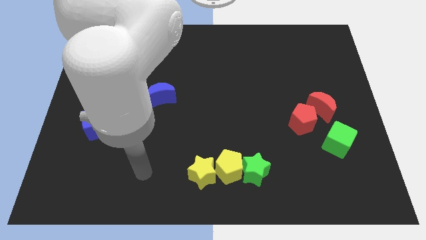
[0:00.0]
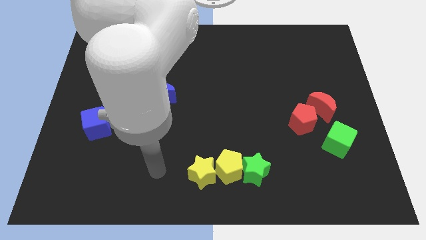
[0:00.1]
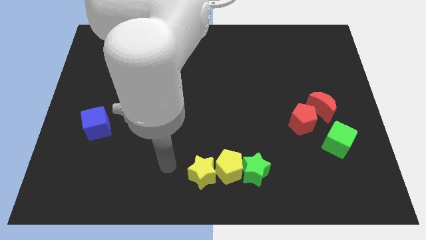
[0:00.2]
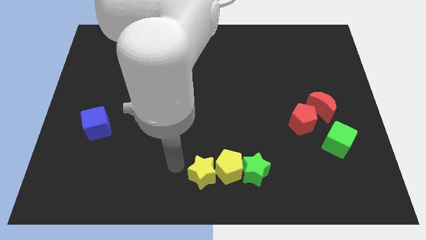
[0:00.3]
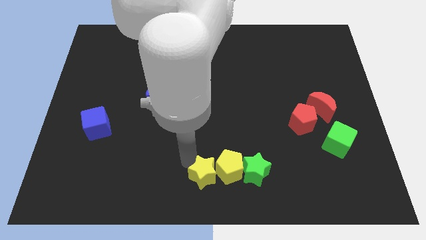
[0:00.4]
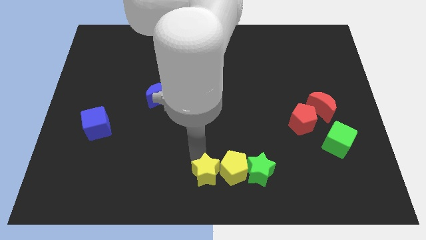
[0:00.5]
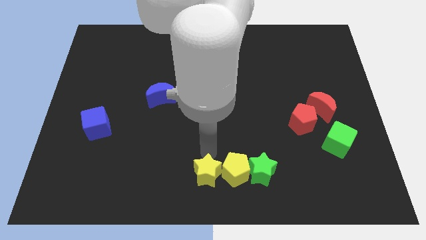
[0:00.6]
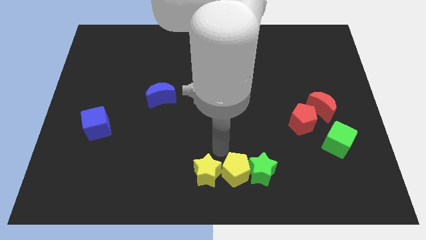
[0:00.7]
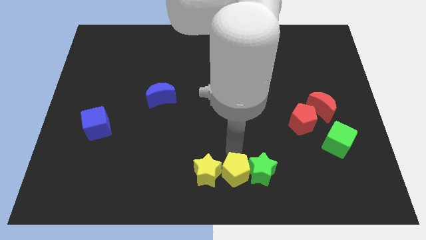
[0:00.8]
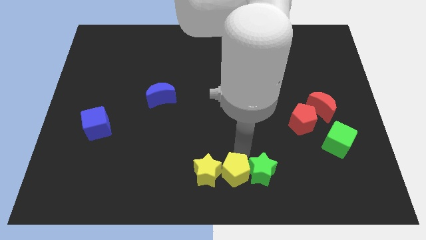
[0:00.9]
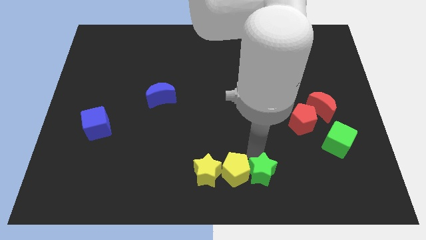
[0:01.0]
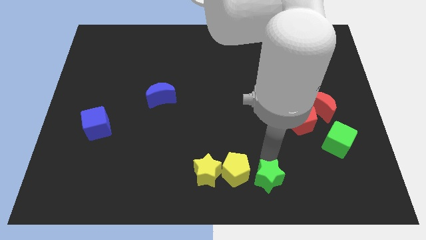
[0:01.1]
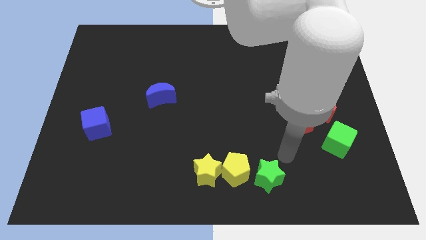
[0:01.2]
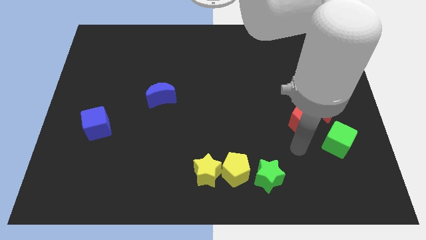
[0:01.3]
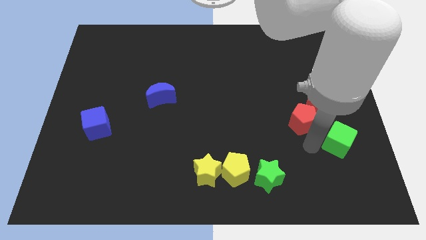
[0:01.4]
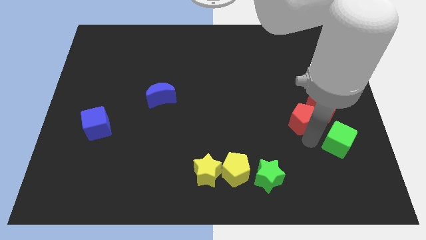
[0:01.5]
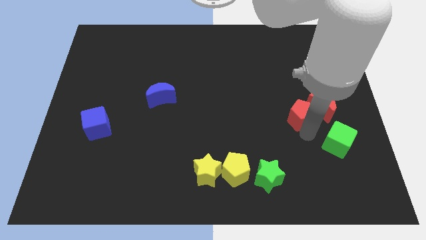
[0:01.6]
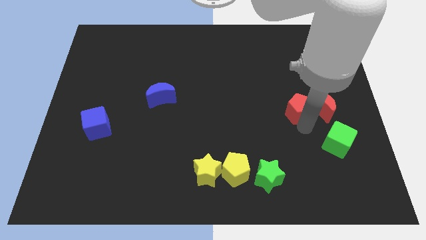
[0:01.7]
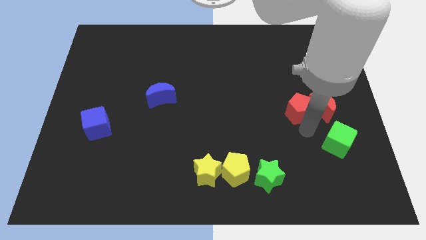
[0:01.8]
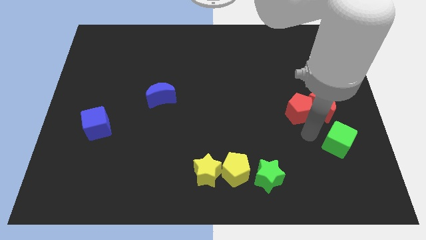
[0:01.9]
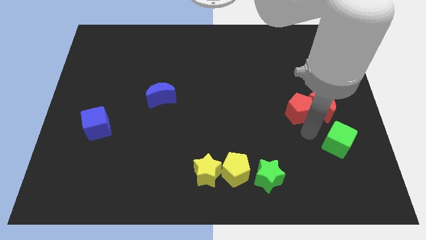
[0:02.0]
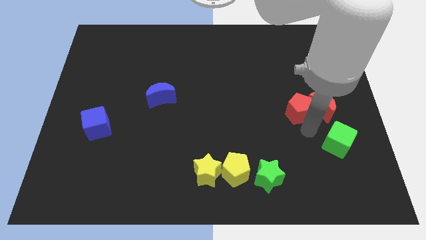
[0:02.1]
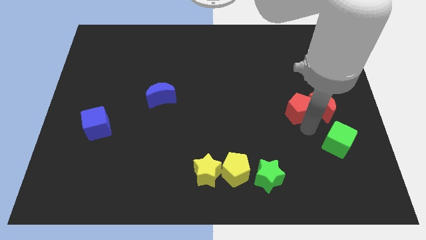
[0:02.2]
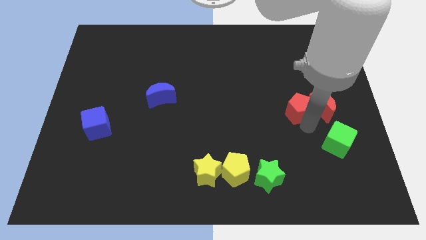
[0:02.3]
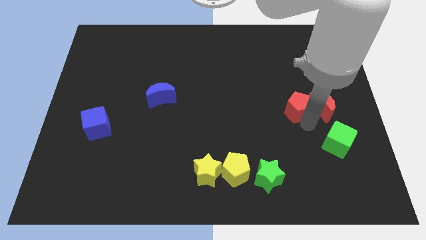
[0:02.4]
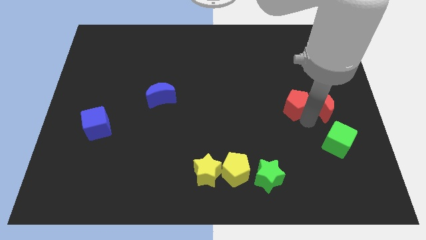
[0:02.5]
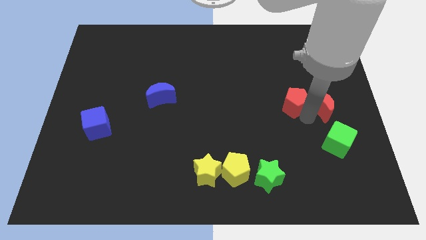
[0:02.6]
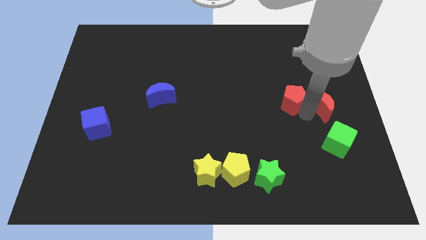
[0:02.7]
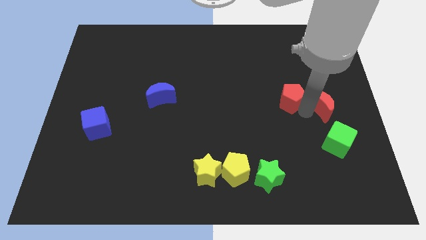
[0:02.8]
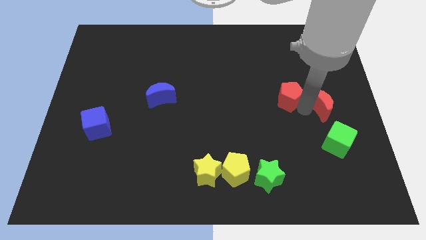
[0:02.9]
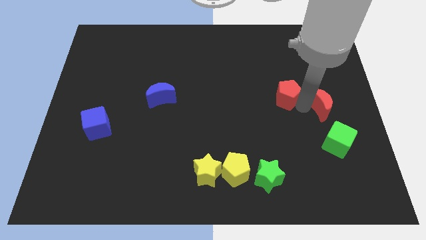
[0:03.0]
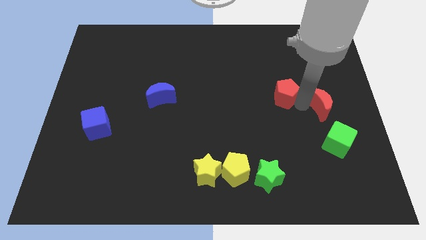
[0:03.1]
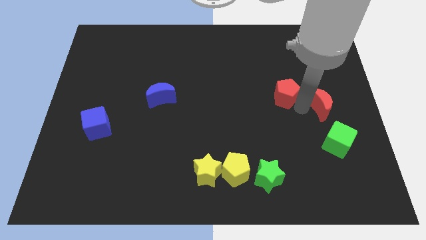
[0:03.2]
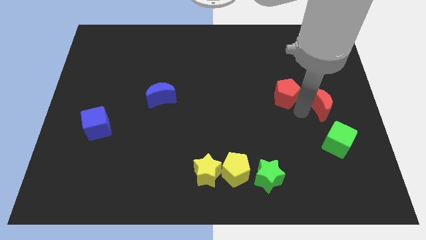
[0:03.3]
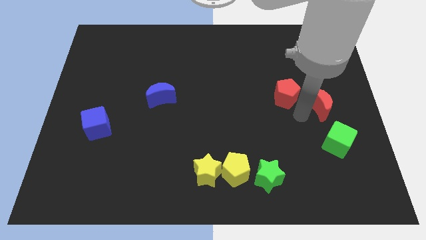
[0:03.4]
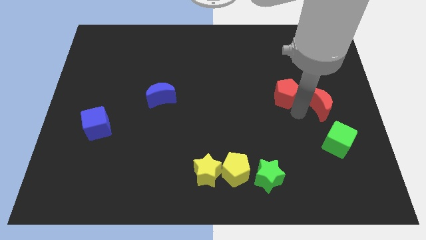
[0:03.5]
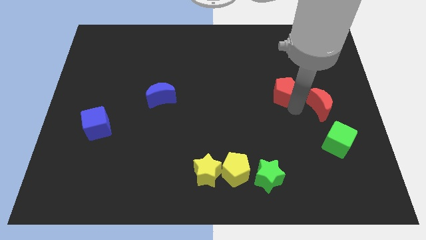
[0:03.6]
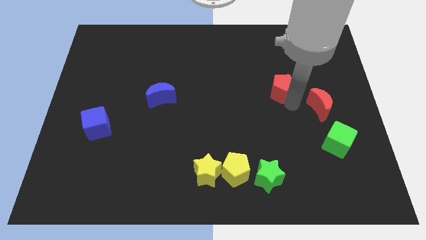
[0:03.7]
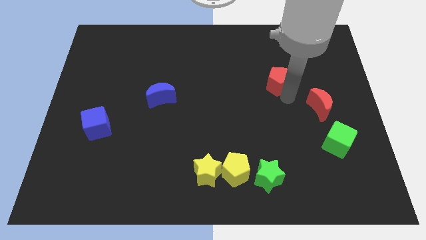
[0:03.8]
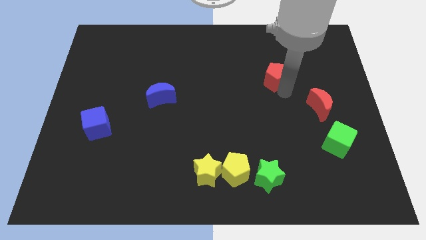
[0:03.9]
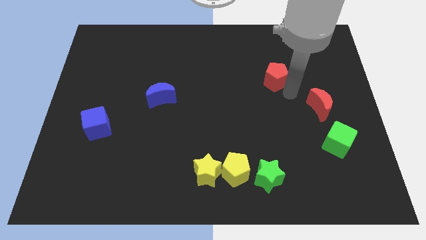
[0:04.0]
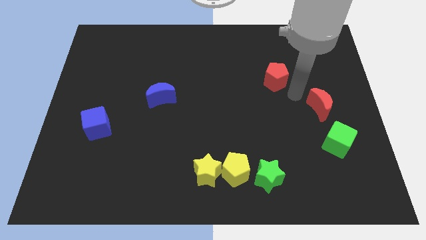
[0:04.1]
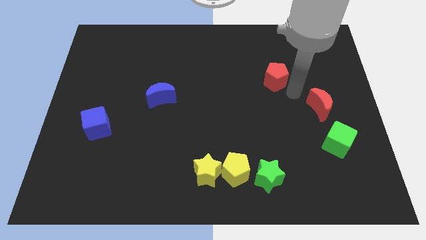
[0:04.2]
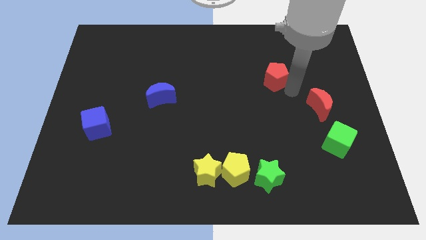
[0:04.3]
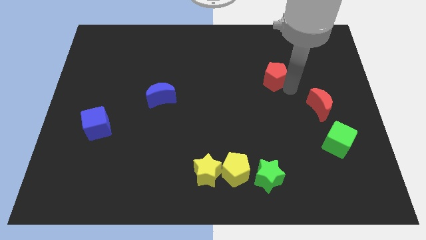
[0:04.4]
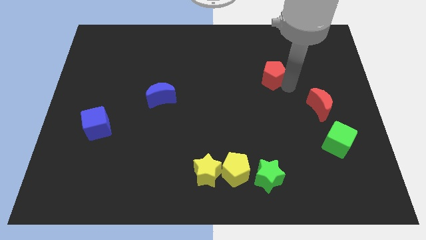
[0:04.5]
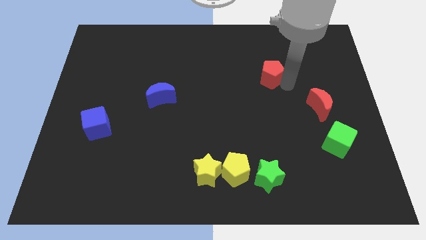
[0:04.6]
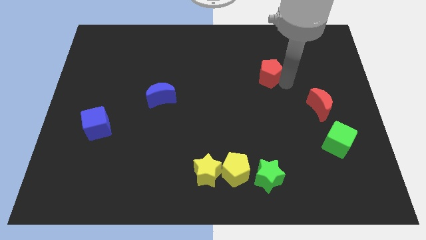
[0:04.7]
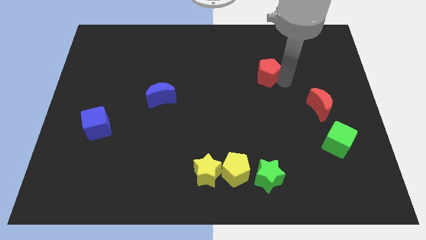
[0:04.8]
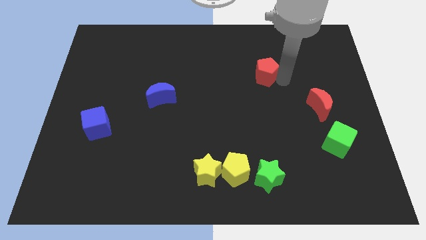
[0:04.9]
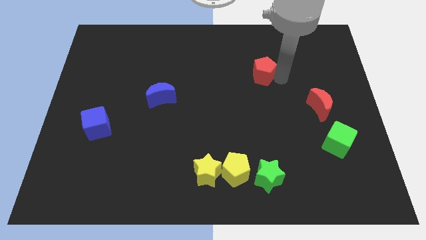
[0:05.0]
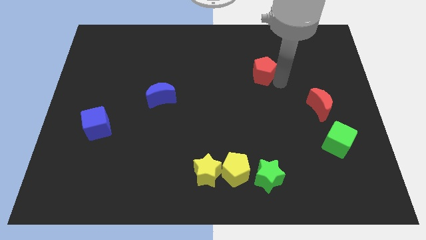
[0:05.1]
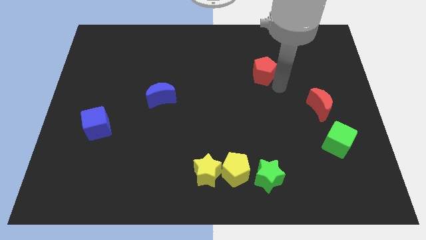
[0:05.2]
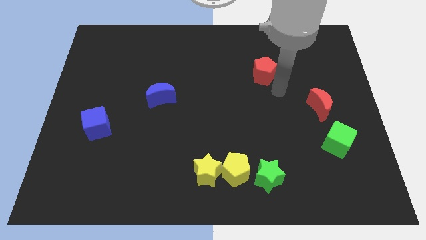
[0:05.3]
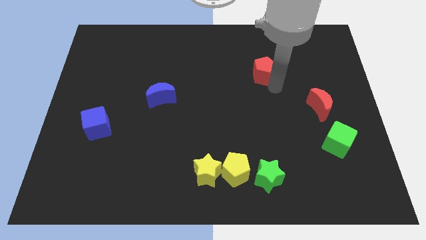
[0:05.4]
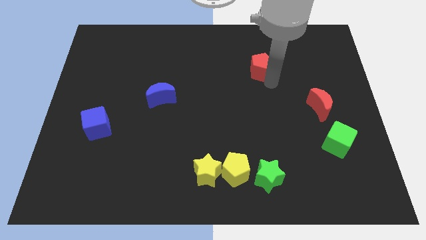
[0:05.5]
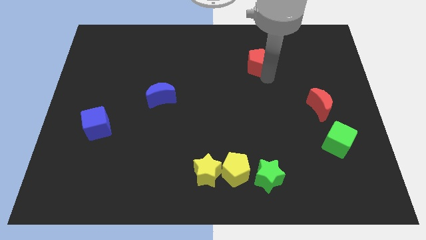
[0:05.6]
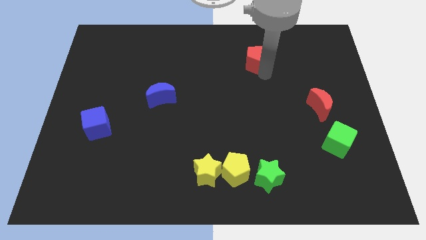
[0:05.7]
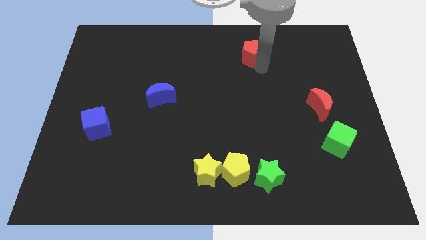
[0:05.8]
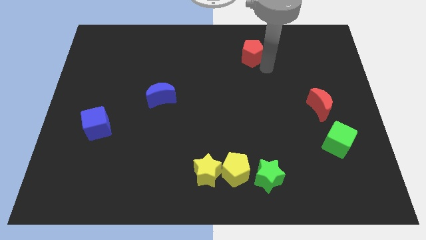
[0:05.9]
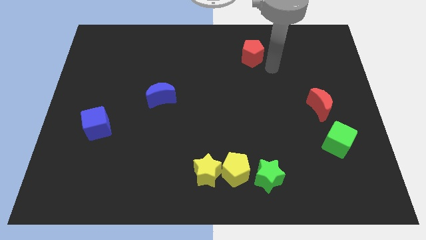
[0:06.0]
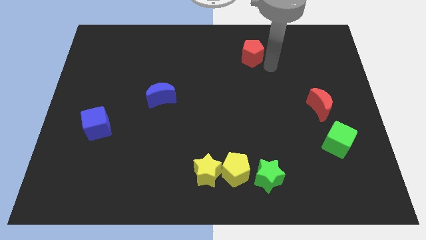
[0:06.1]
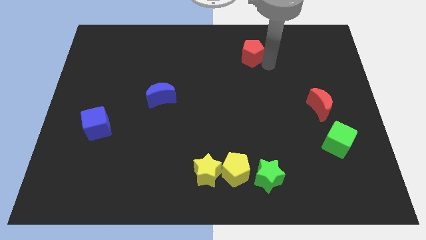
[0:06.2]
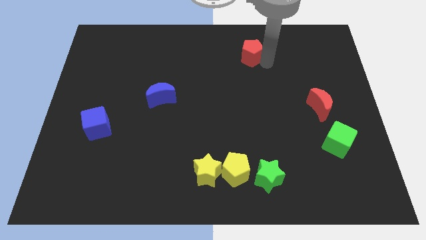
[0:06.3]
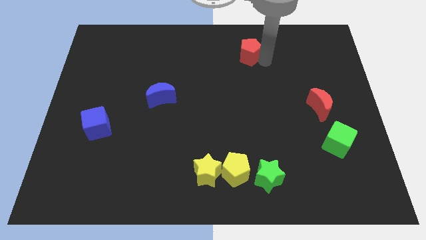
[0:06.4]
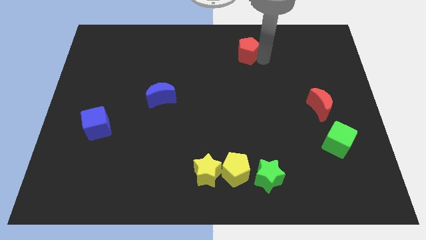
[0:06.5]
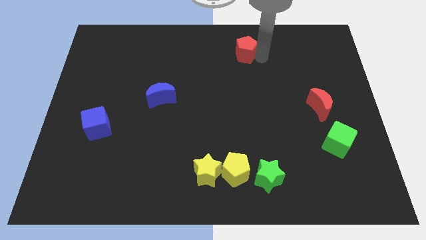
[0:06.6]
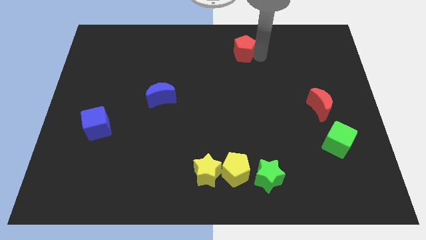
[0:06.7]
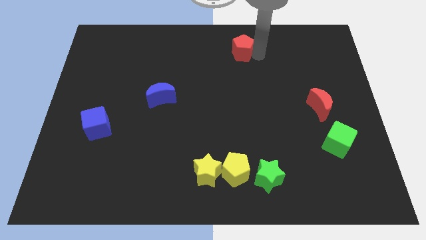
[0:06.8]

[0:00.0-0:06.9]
put the red pentagon to the top side
